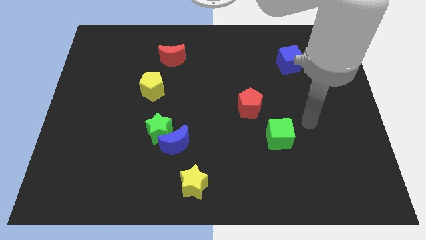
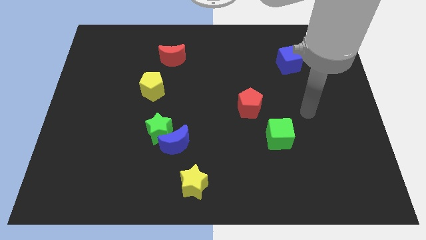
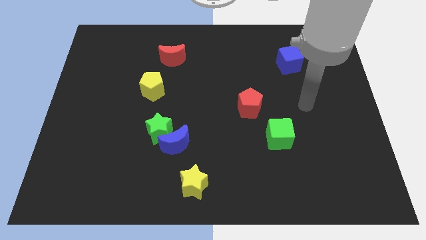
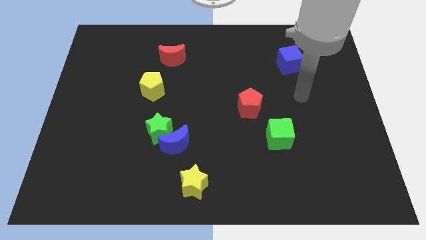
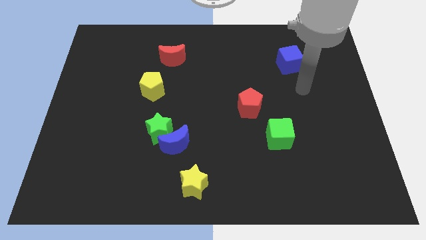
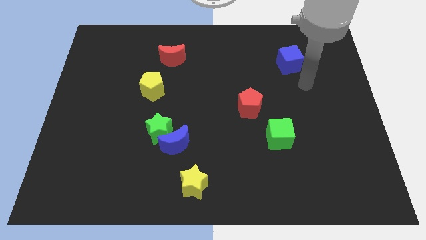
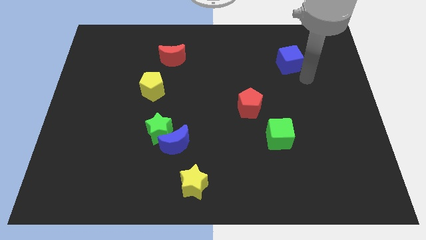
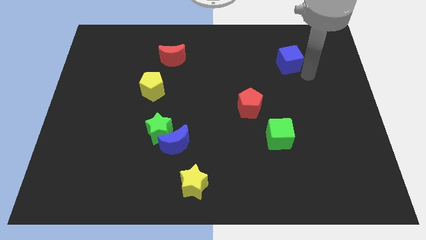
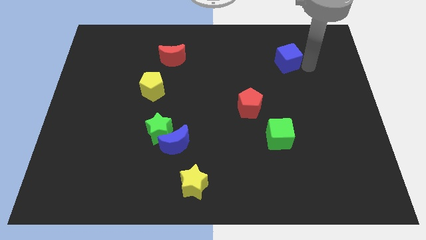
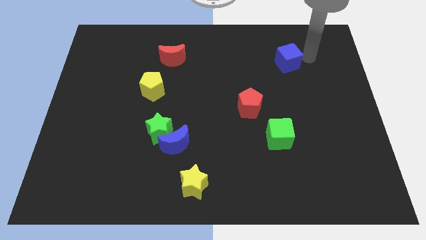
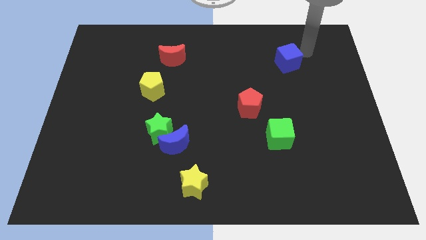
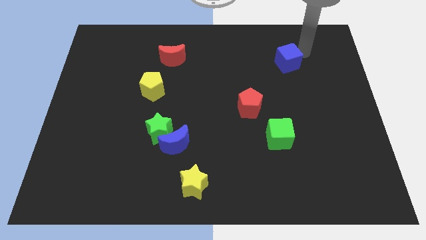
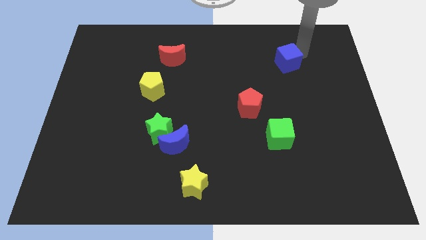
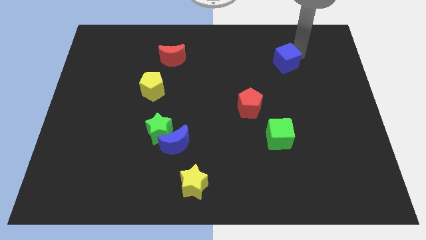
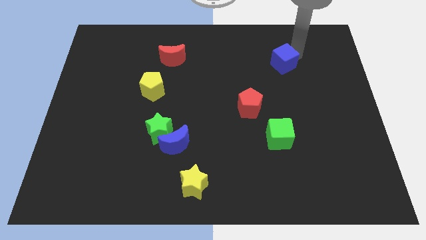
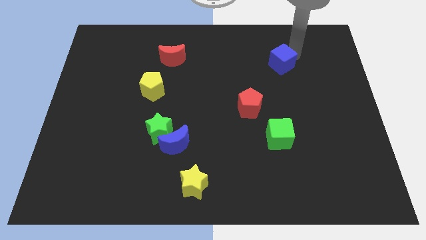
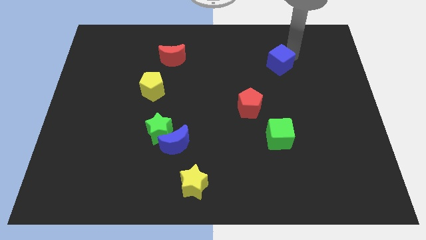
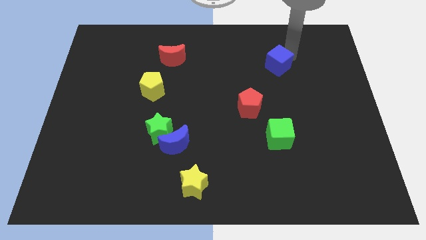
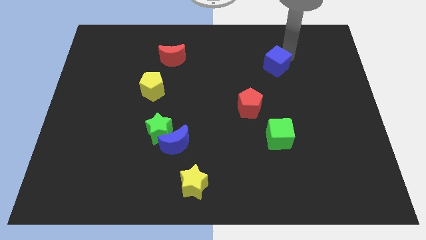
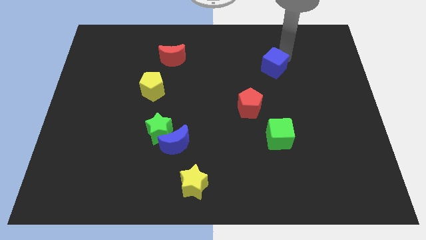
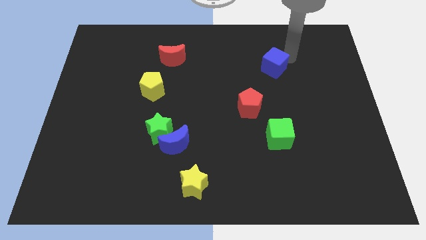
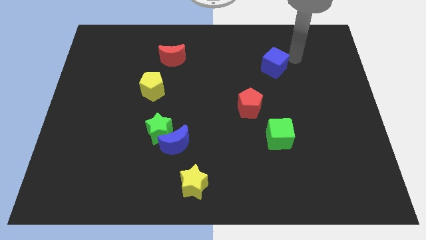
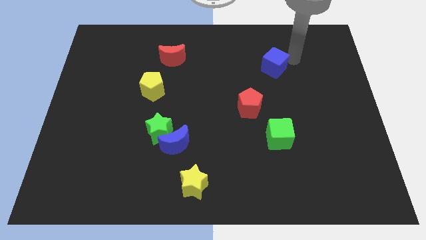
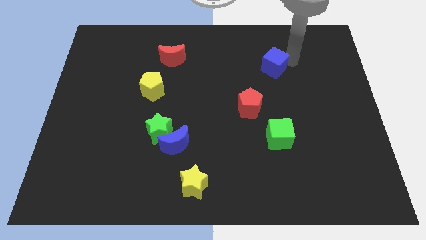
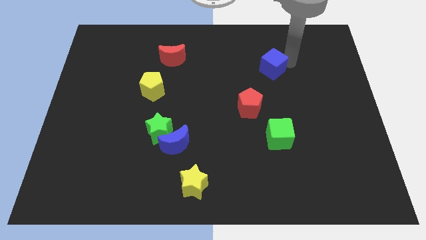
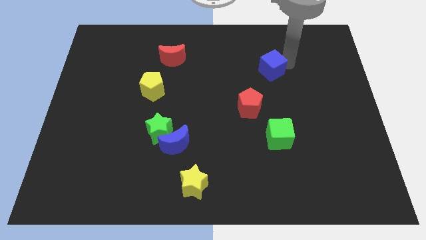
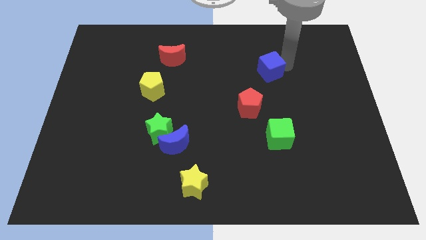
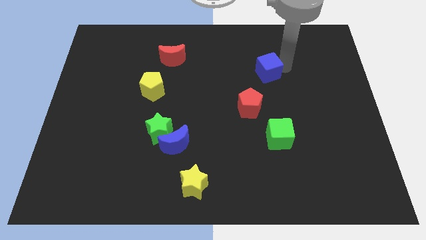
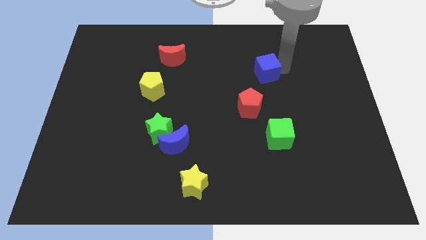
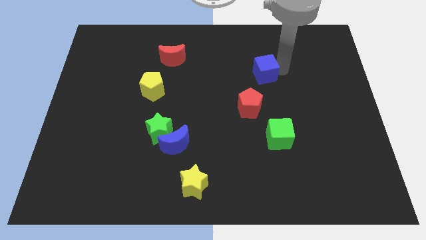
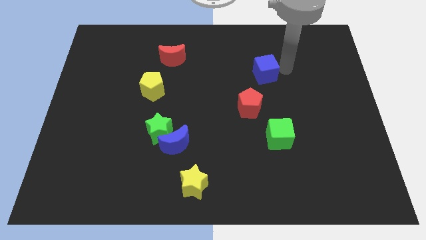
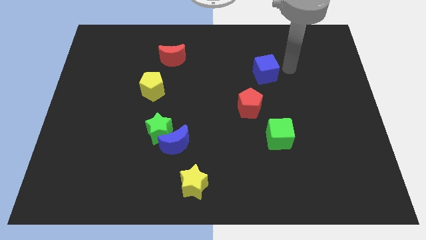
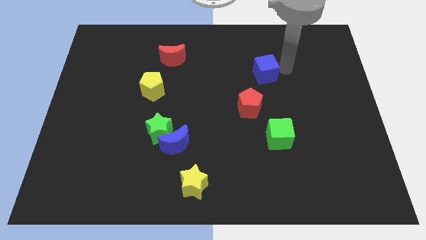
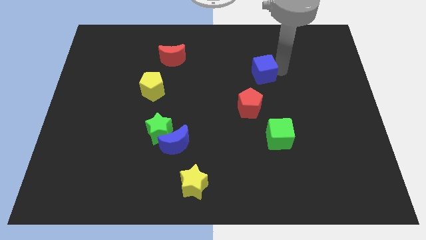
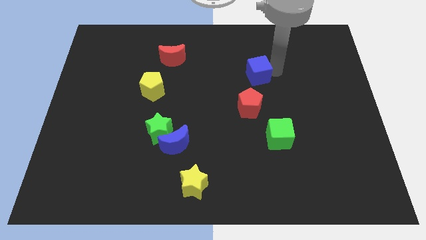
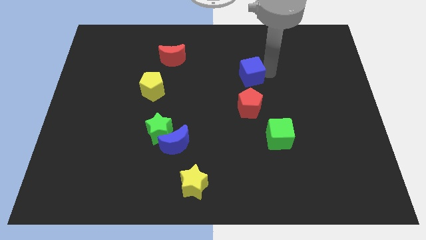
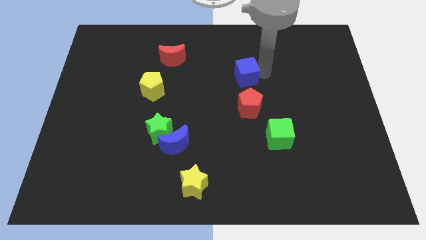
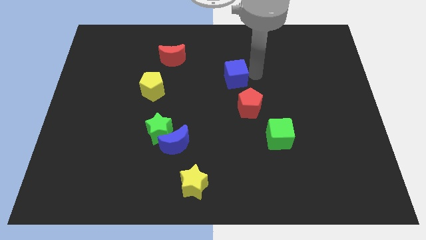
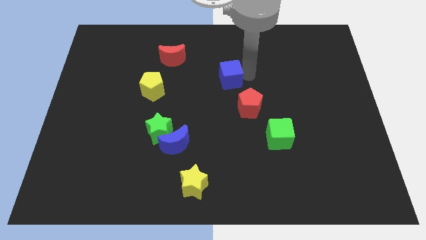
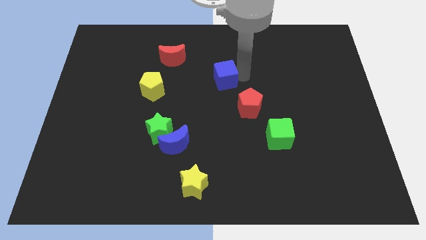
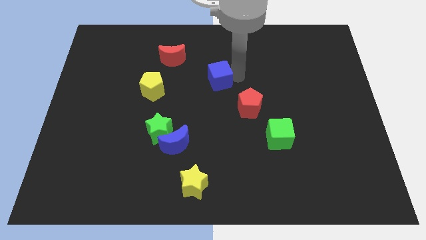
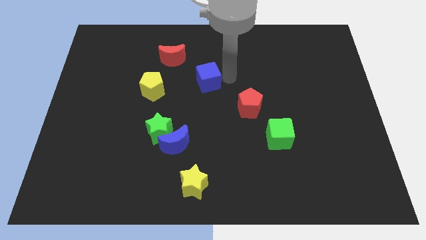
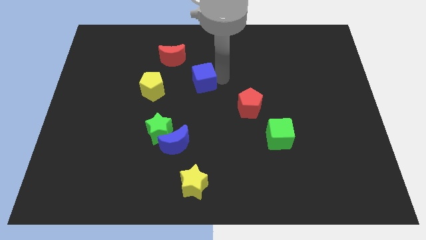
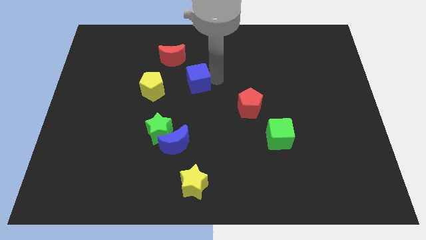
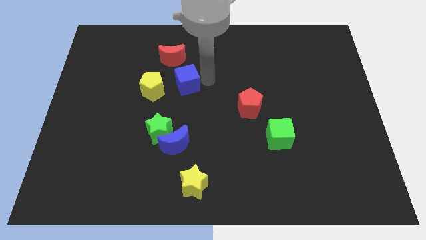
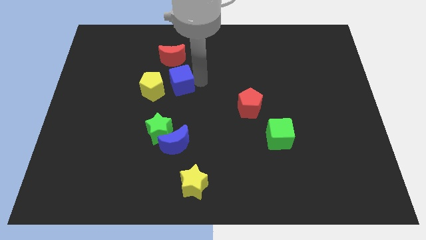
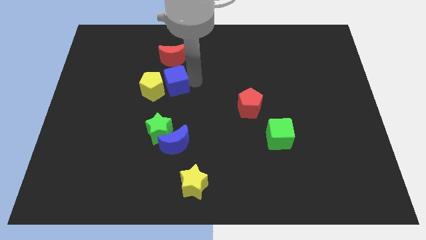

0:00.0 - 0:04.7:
move the blue cube next to the yellow pentagon

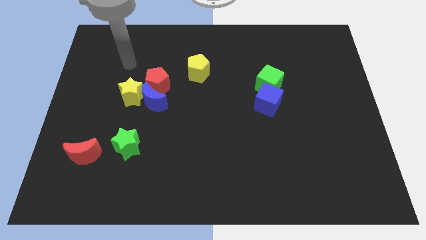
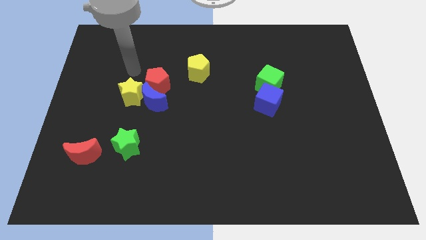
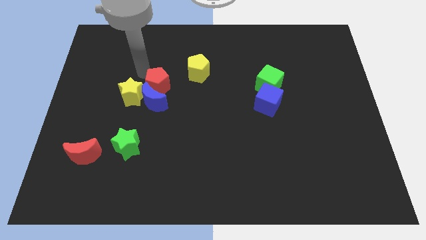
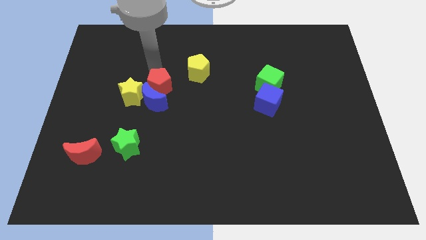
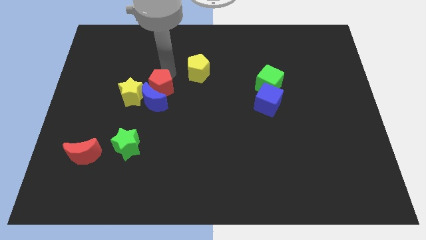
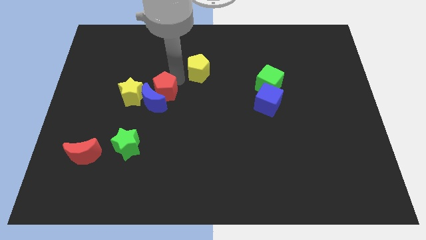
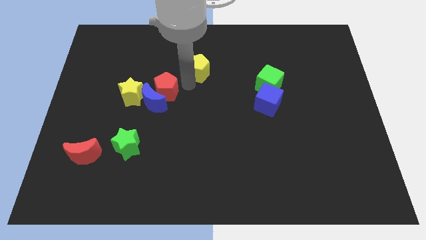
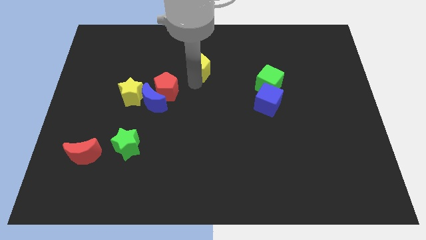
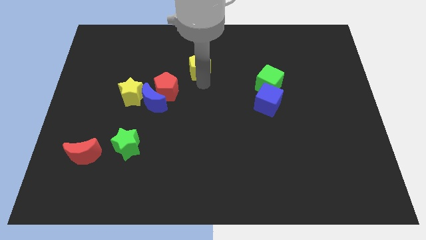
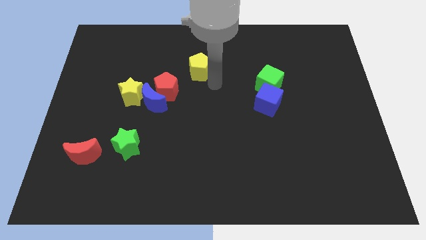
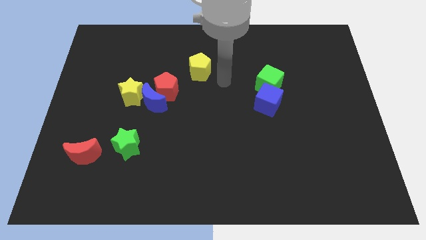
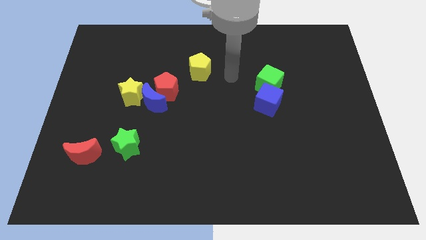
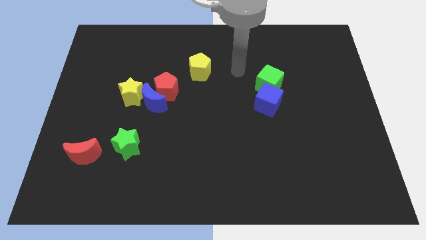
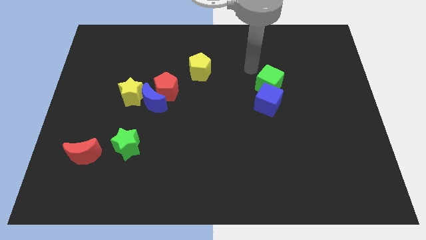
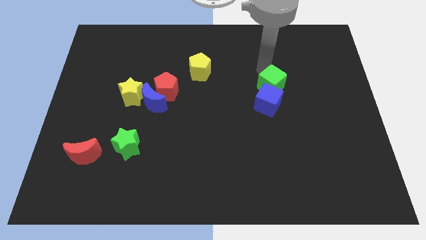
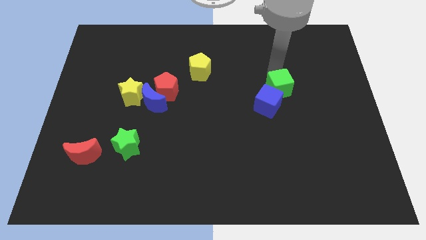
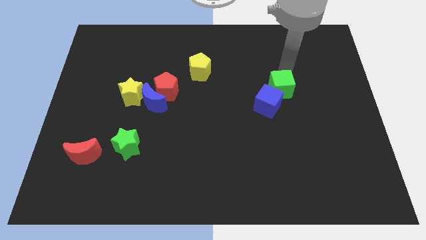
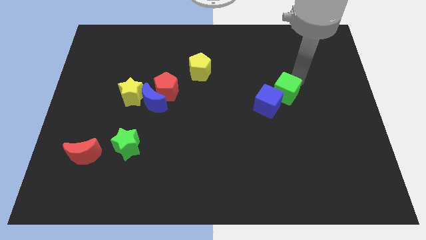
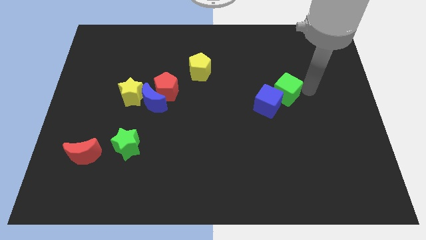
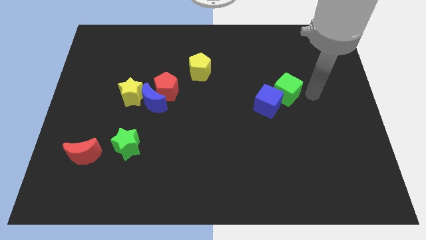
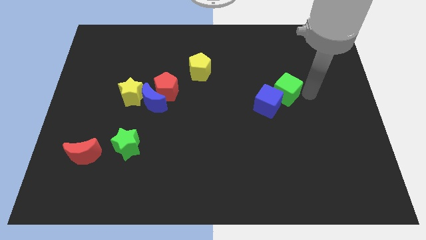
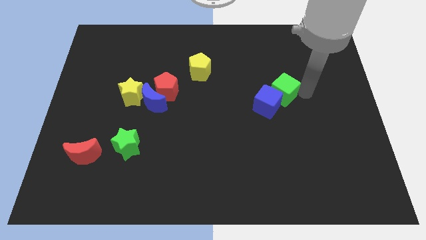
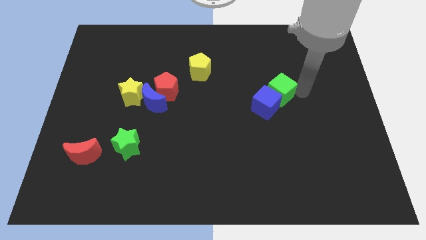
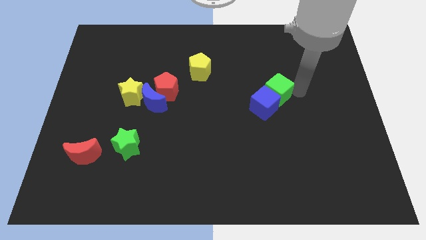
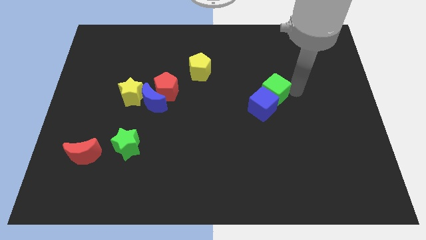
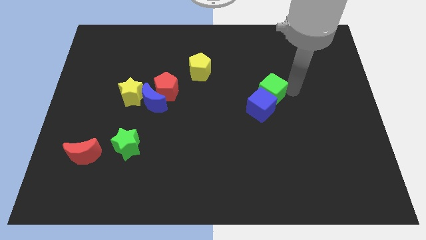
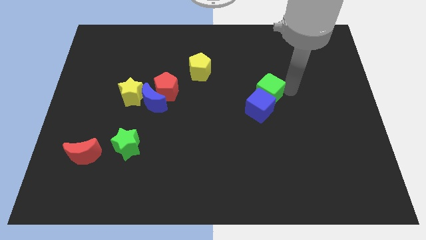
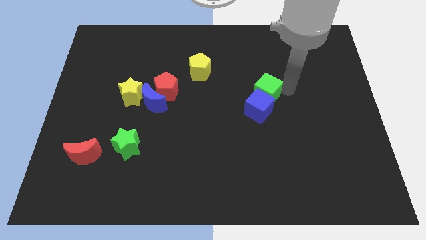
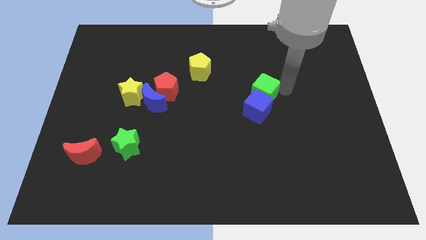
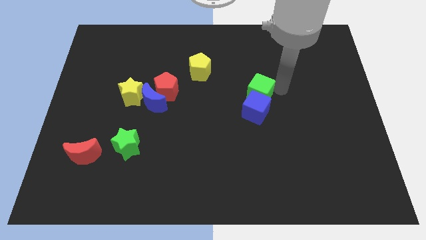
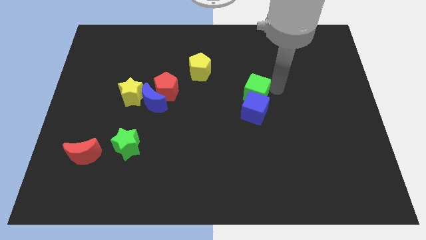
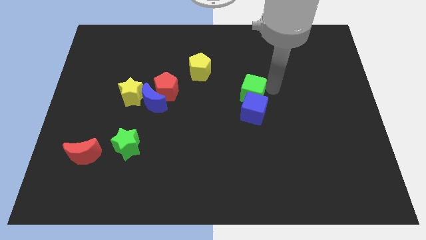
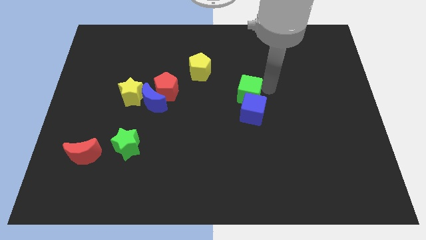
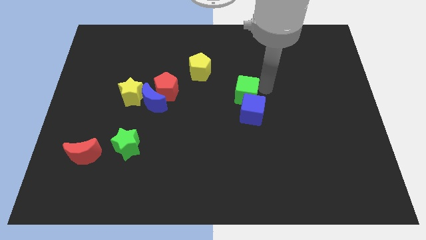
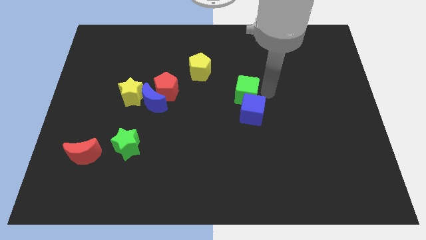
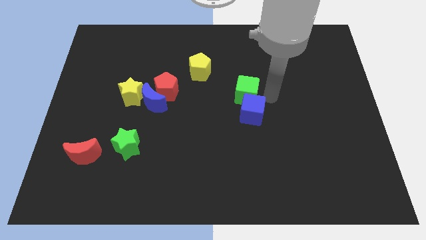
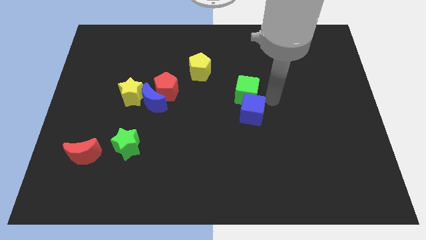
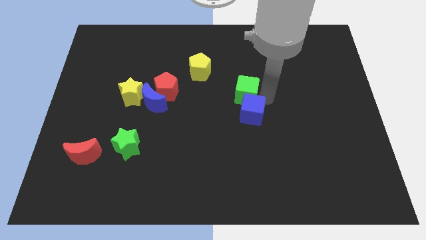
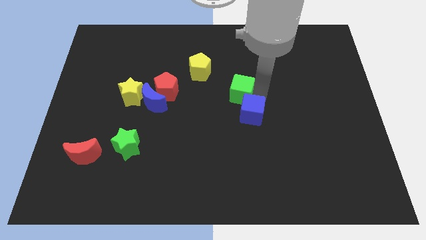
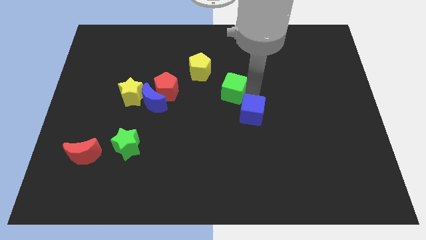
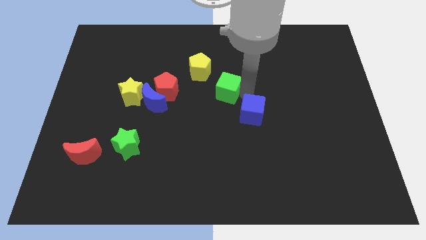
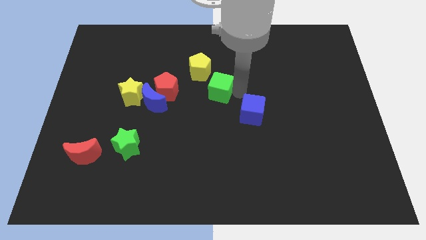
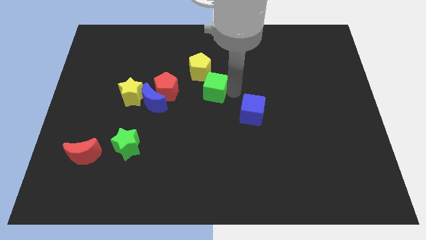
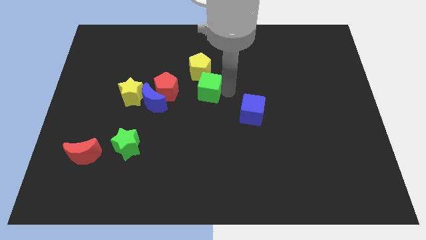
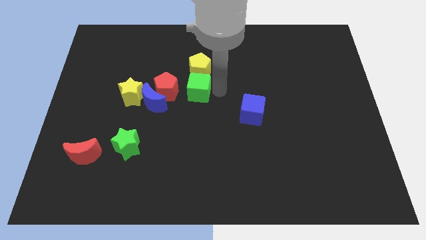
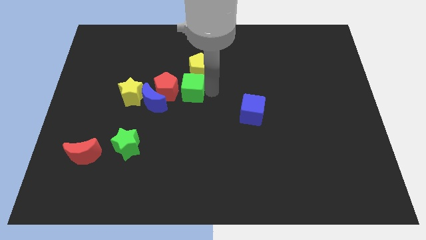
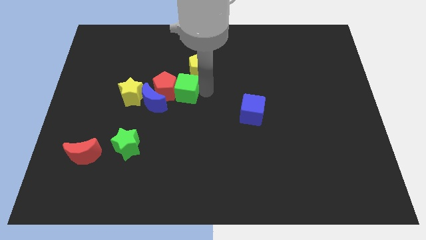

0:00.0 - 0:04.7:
slide the green cube close to the red pentagon
